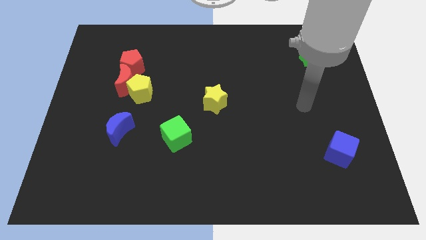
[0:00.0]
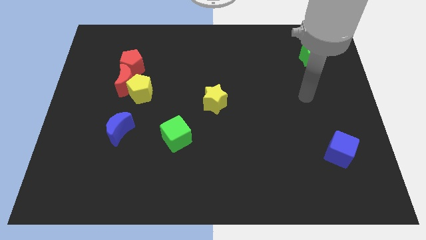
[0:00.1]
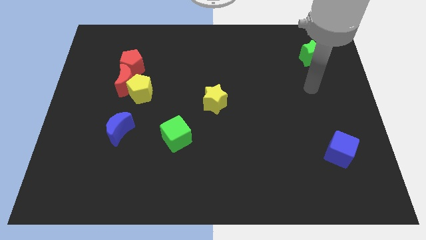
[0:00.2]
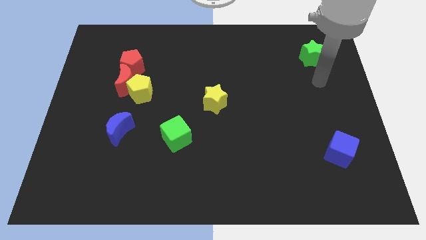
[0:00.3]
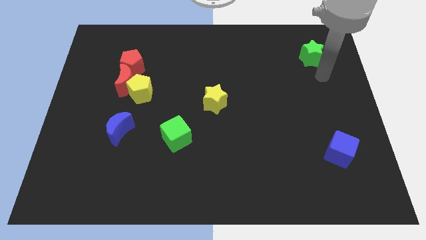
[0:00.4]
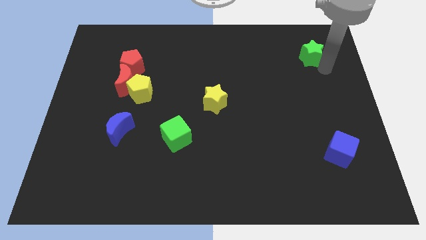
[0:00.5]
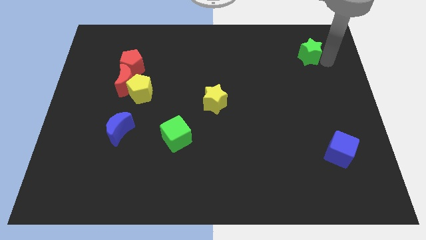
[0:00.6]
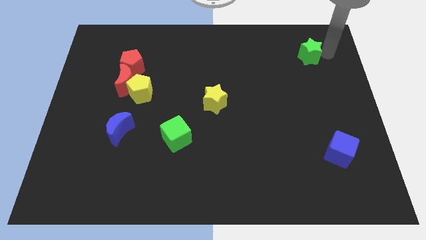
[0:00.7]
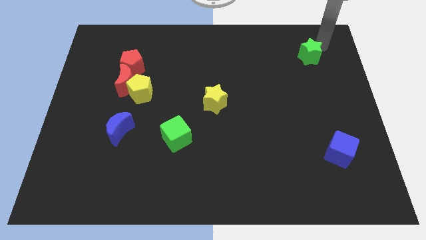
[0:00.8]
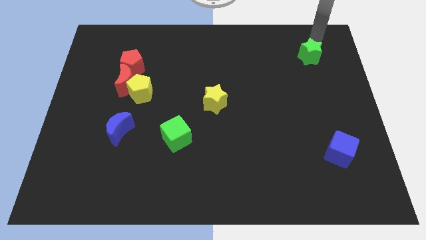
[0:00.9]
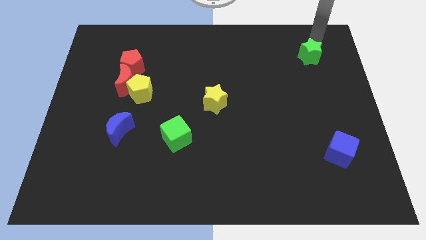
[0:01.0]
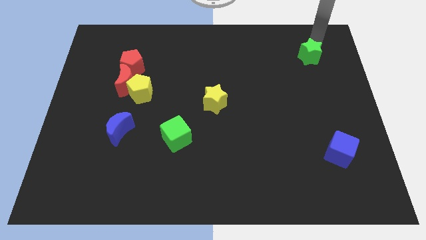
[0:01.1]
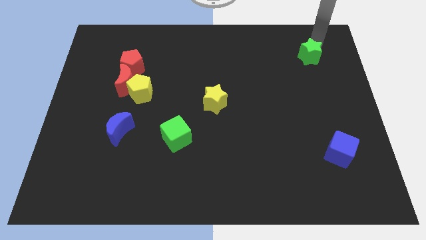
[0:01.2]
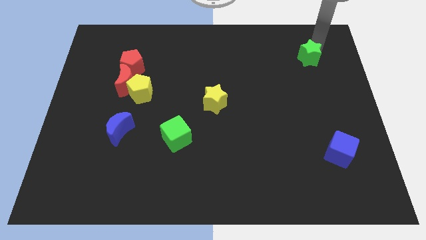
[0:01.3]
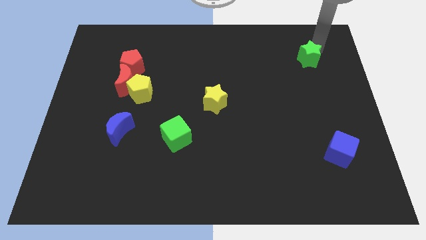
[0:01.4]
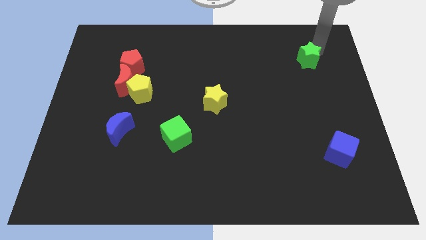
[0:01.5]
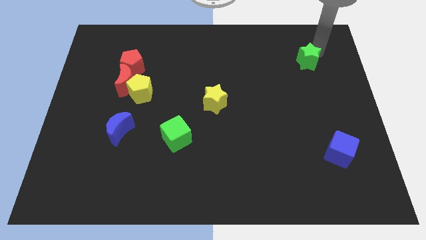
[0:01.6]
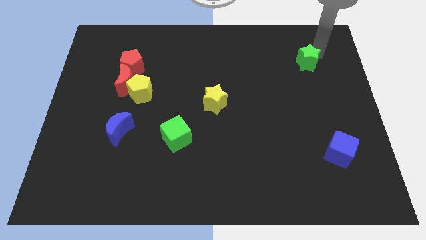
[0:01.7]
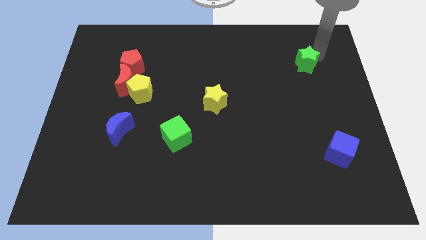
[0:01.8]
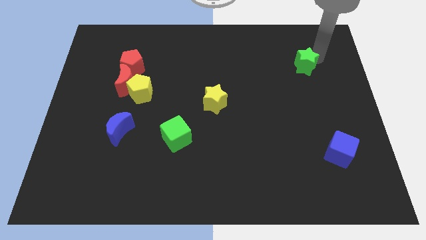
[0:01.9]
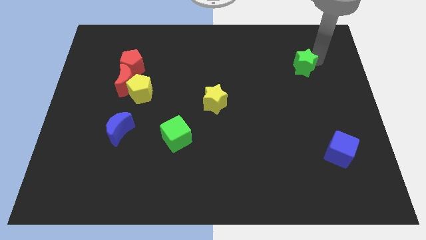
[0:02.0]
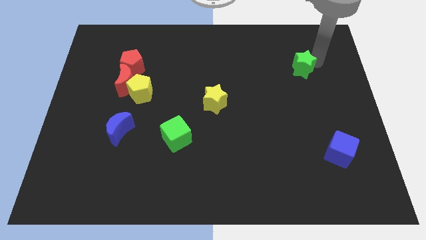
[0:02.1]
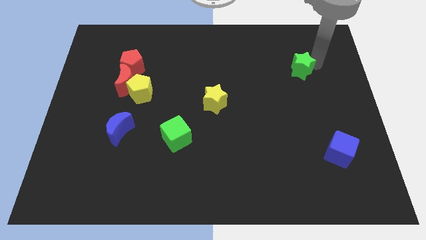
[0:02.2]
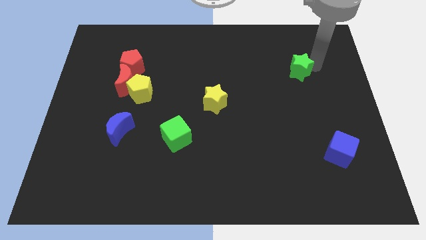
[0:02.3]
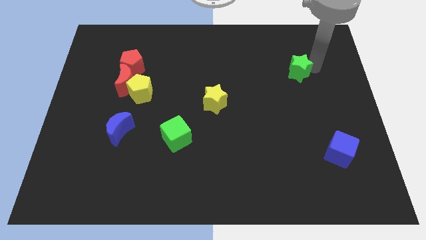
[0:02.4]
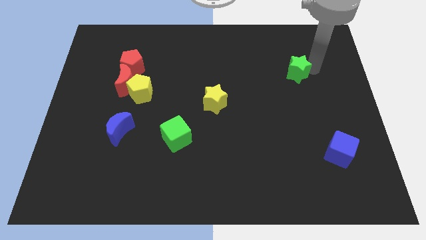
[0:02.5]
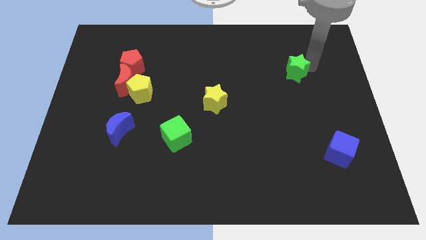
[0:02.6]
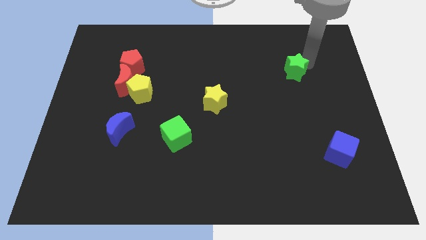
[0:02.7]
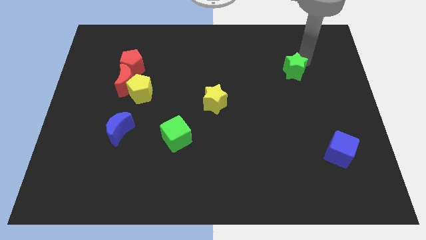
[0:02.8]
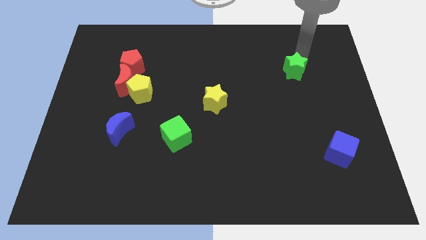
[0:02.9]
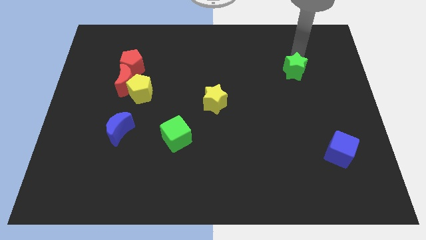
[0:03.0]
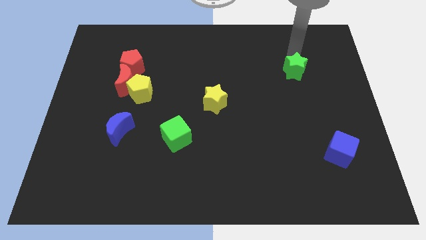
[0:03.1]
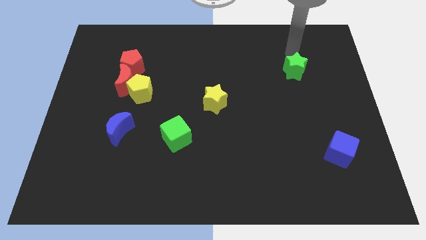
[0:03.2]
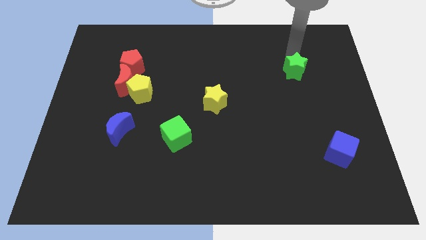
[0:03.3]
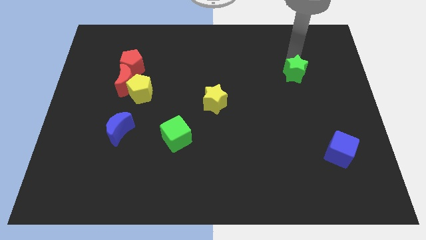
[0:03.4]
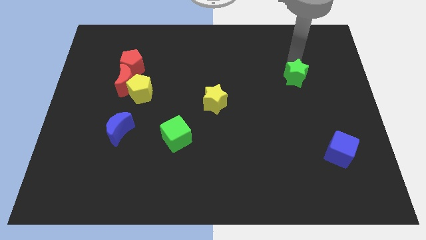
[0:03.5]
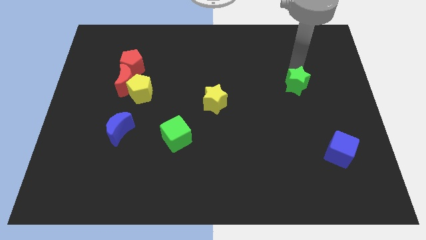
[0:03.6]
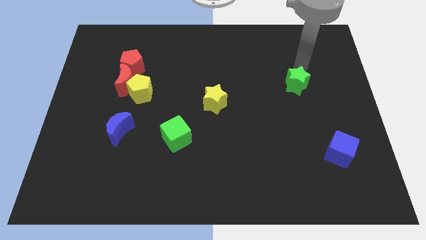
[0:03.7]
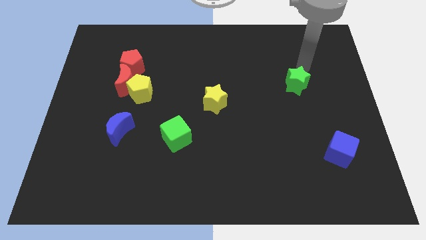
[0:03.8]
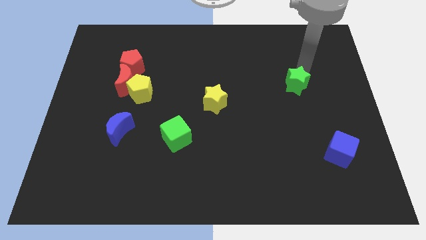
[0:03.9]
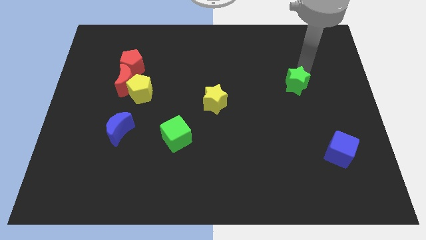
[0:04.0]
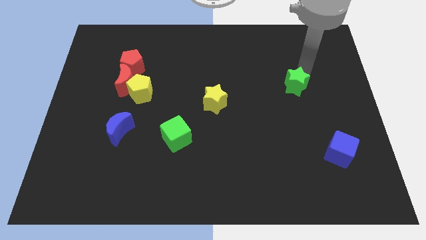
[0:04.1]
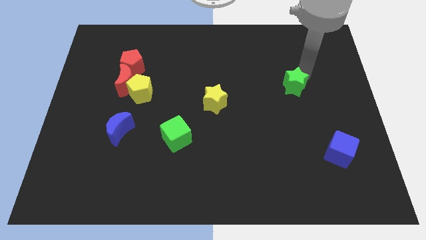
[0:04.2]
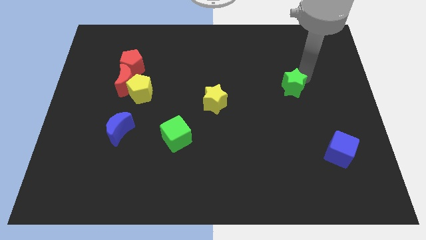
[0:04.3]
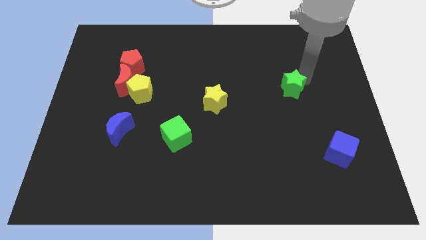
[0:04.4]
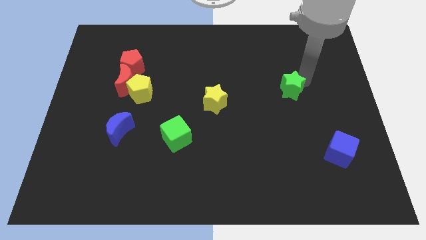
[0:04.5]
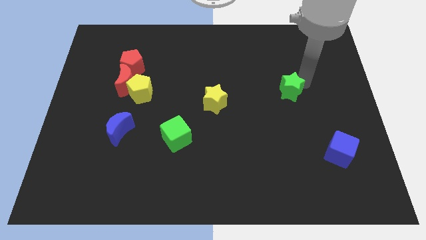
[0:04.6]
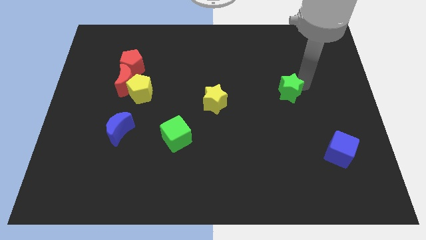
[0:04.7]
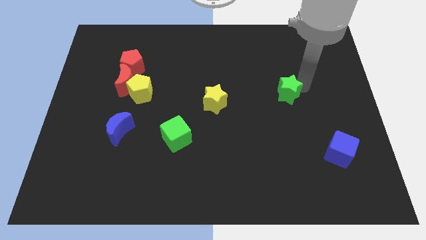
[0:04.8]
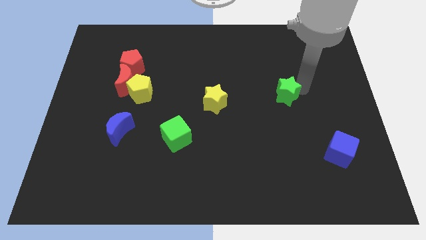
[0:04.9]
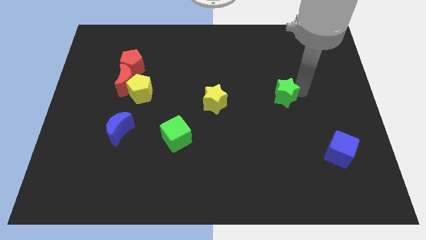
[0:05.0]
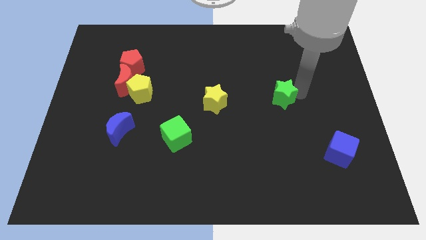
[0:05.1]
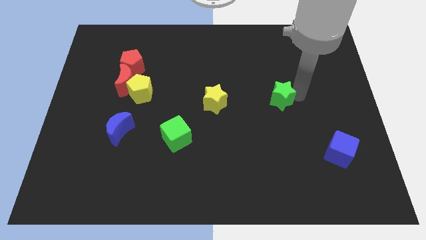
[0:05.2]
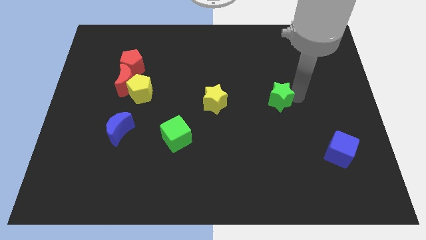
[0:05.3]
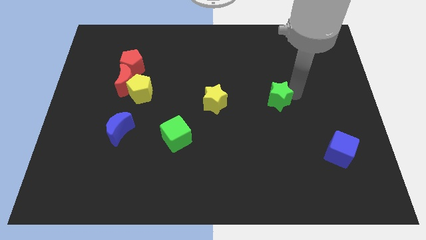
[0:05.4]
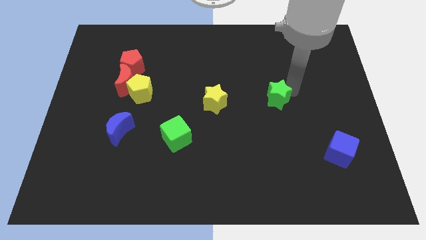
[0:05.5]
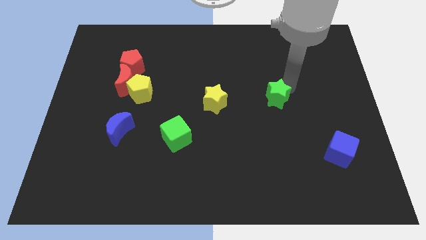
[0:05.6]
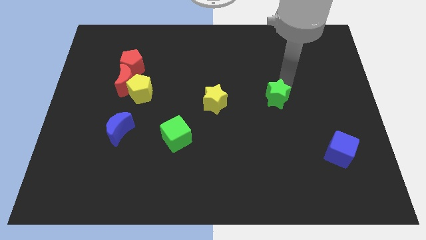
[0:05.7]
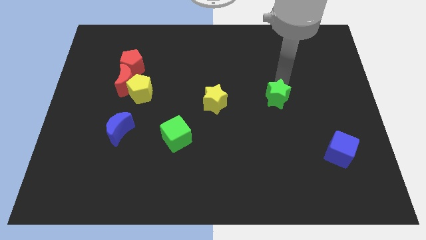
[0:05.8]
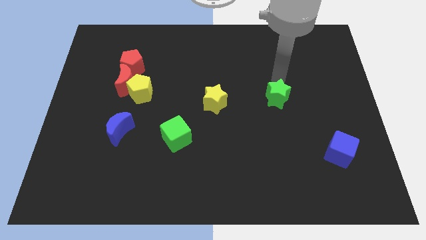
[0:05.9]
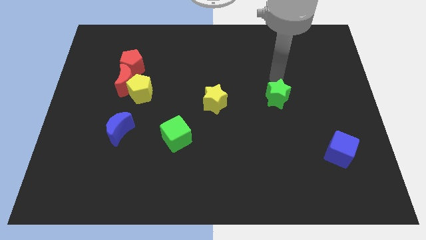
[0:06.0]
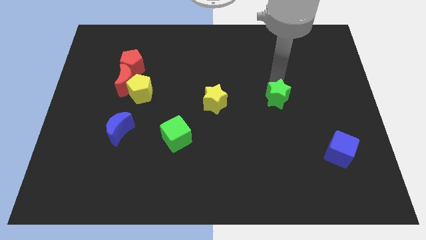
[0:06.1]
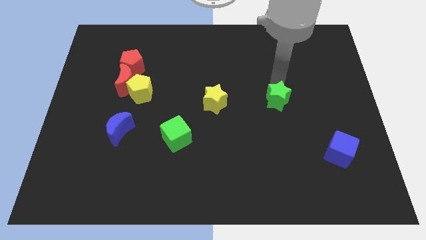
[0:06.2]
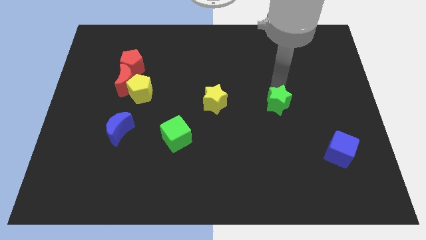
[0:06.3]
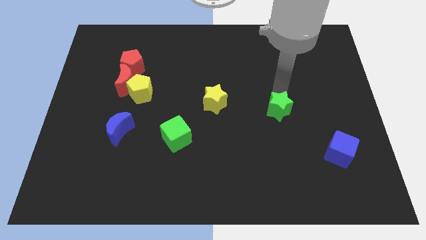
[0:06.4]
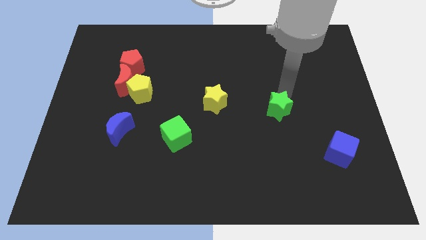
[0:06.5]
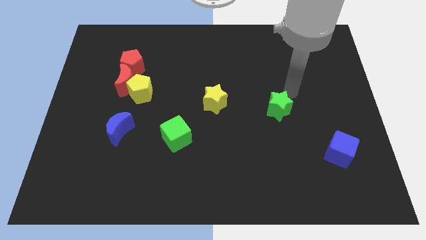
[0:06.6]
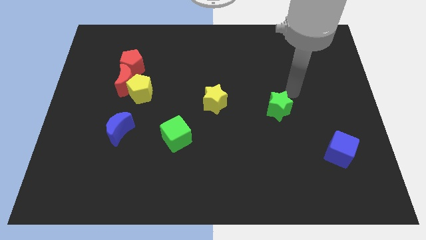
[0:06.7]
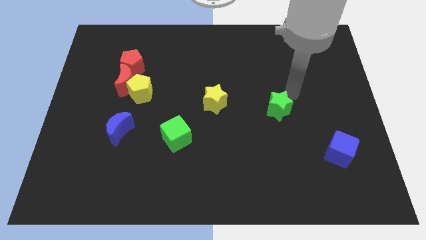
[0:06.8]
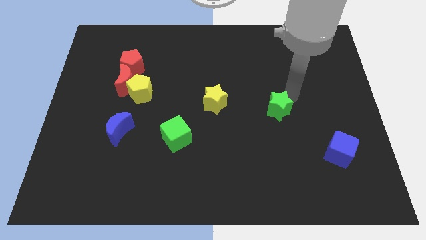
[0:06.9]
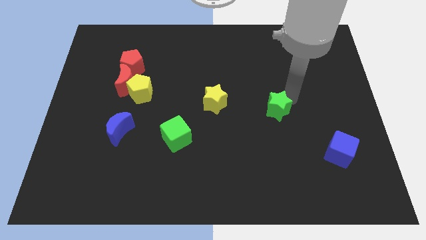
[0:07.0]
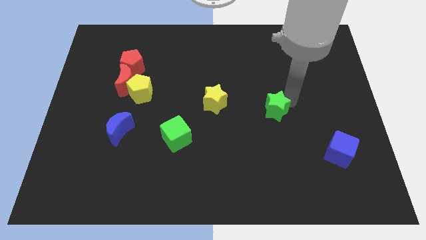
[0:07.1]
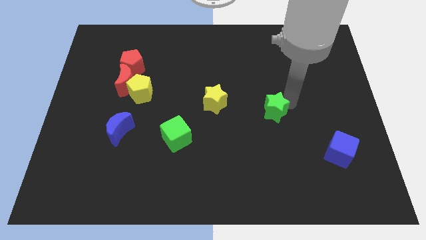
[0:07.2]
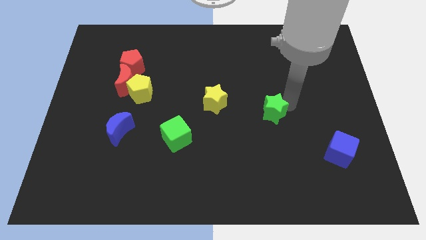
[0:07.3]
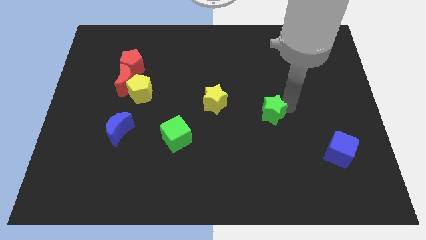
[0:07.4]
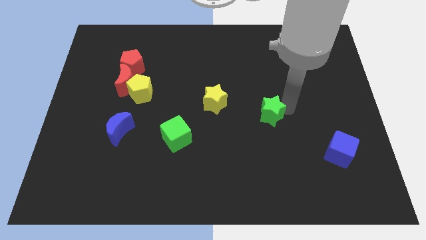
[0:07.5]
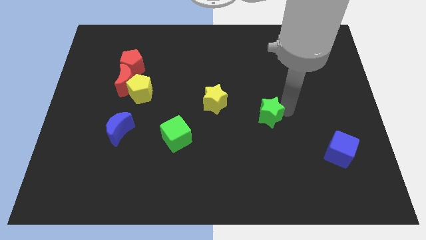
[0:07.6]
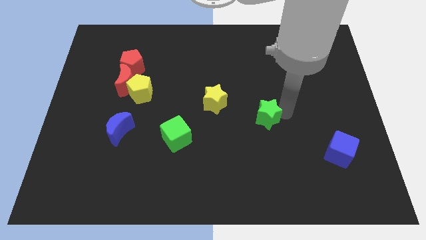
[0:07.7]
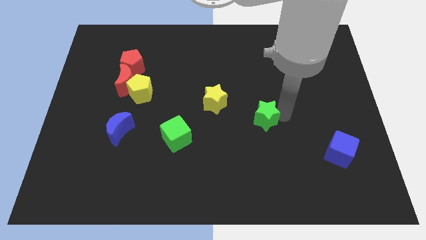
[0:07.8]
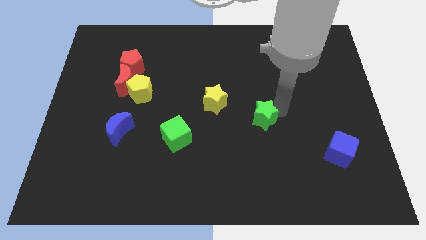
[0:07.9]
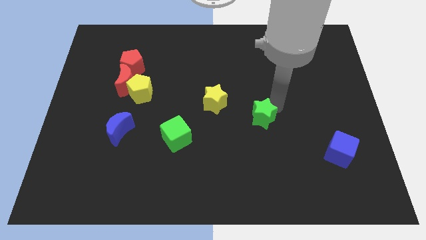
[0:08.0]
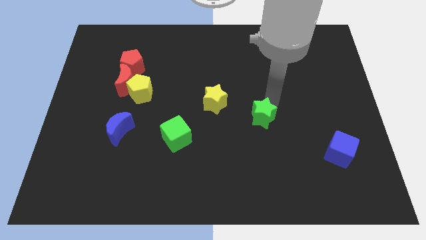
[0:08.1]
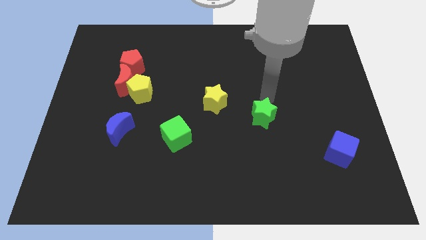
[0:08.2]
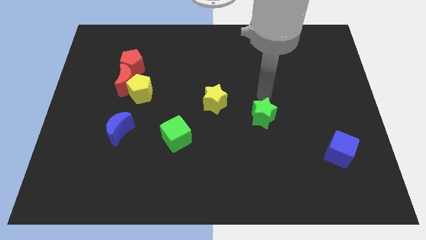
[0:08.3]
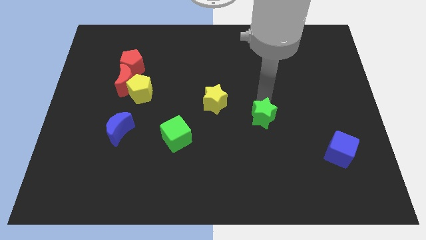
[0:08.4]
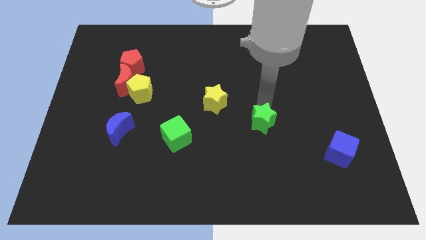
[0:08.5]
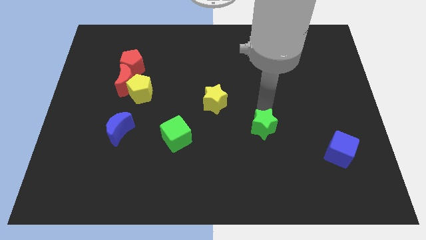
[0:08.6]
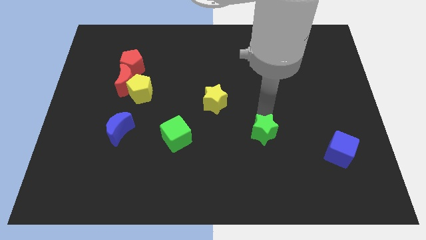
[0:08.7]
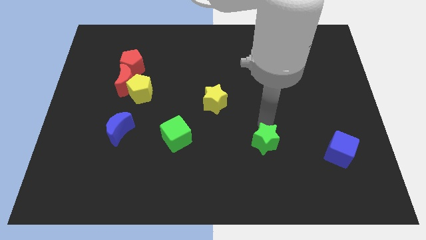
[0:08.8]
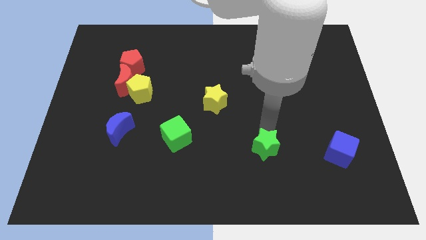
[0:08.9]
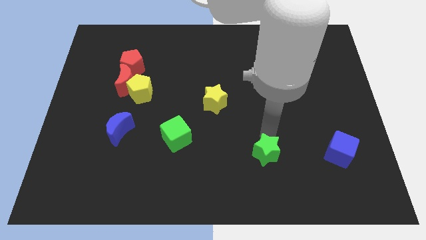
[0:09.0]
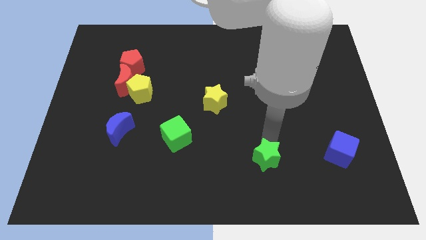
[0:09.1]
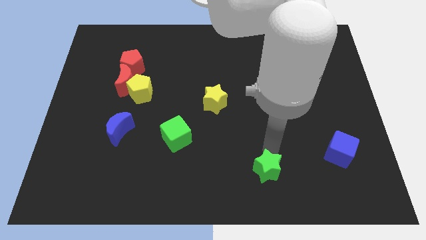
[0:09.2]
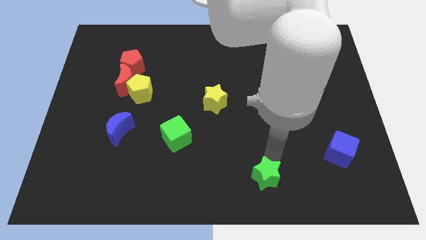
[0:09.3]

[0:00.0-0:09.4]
move the green star to the bottom
